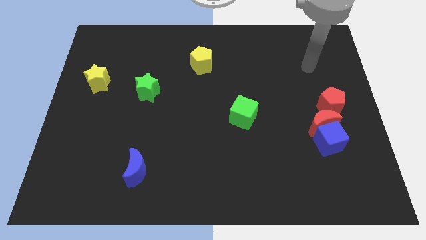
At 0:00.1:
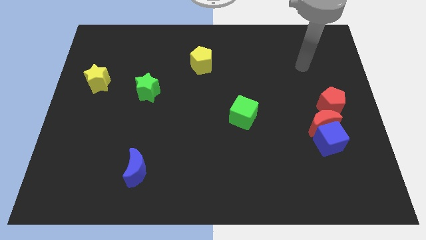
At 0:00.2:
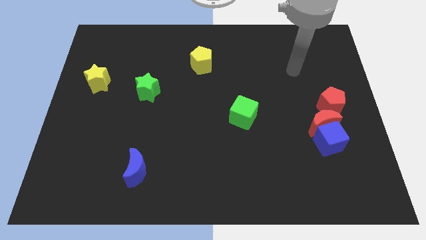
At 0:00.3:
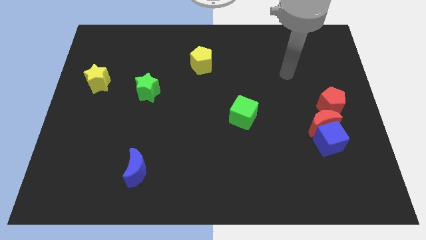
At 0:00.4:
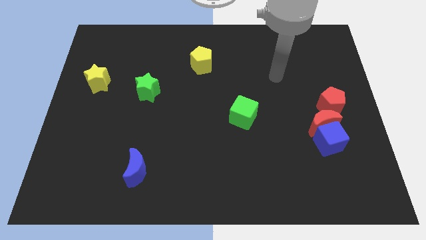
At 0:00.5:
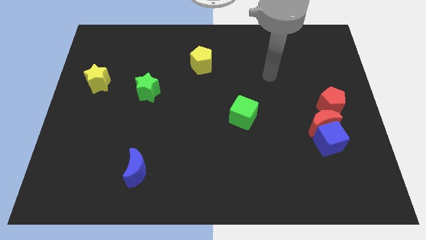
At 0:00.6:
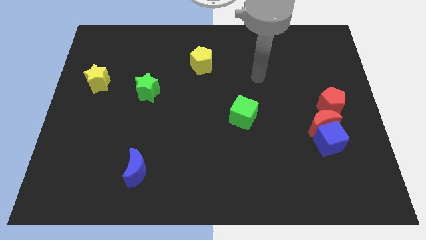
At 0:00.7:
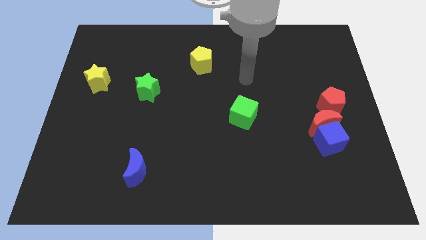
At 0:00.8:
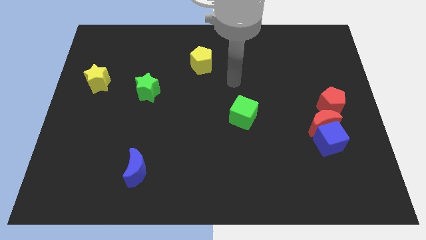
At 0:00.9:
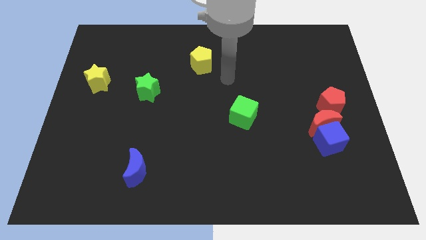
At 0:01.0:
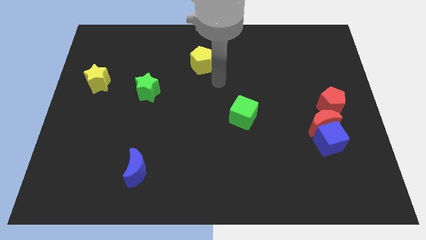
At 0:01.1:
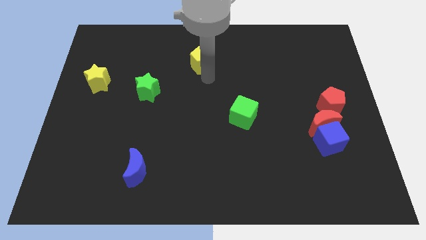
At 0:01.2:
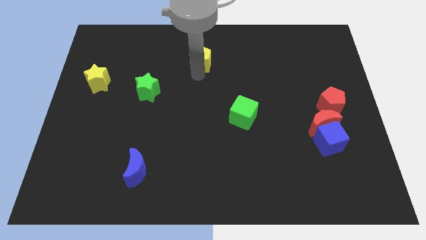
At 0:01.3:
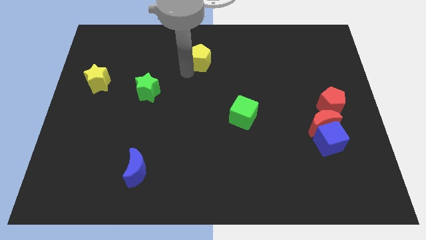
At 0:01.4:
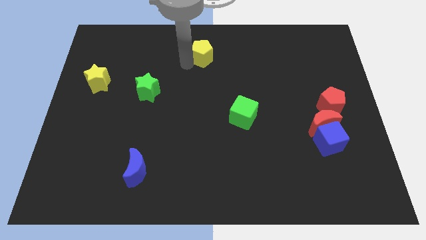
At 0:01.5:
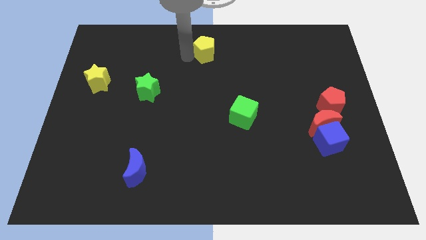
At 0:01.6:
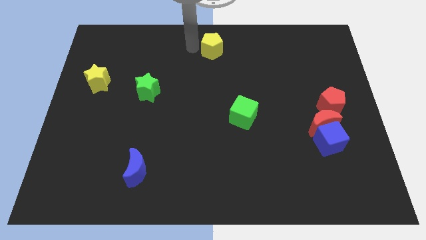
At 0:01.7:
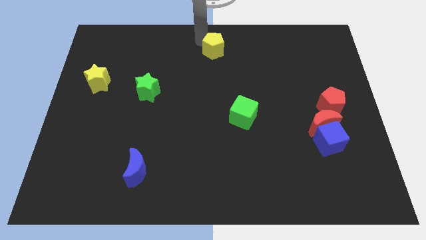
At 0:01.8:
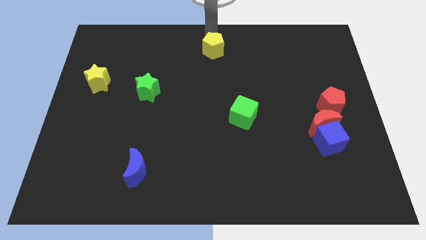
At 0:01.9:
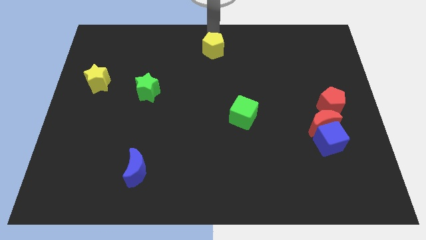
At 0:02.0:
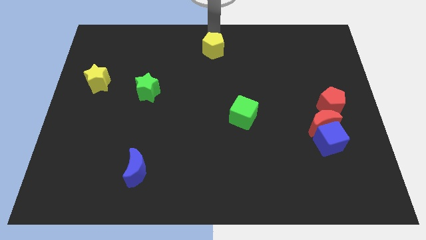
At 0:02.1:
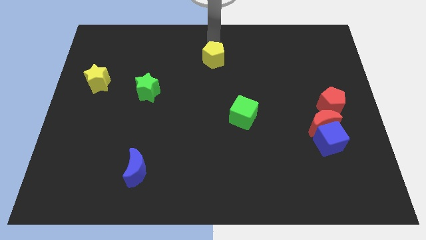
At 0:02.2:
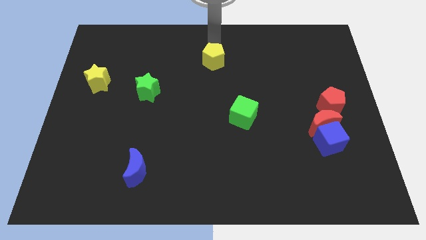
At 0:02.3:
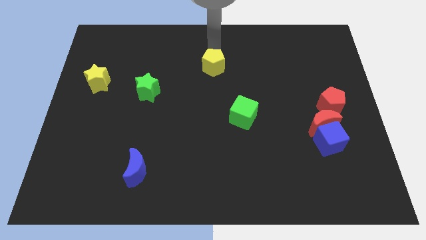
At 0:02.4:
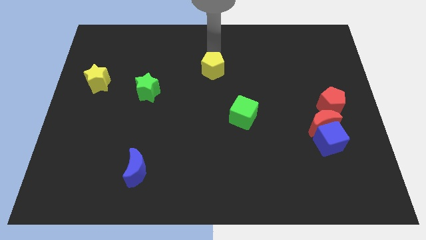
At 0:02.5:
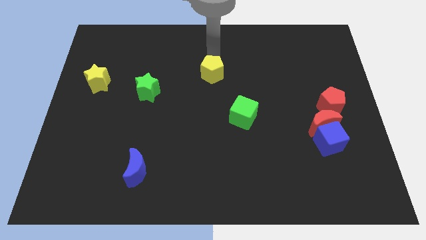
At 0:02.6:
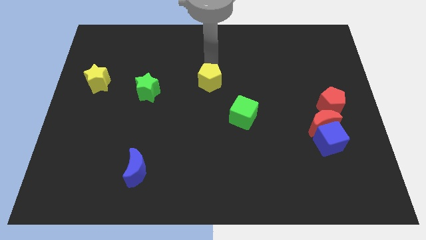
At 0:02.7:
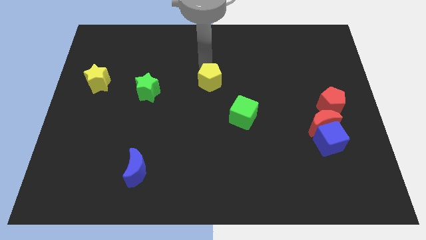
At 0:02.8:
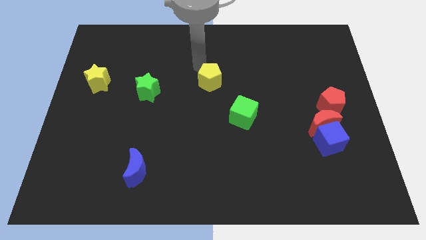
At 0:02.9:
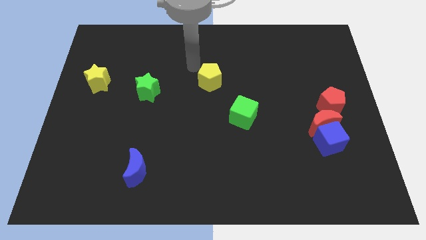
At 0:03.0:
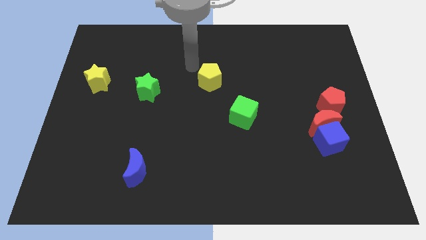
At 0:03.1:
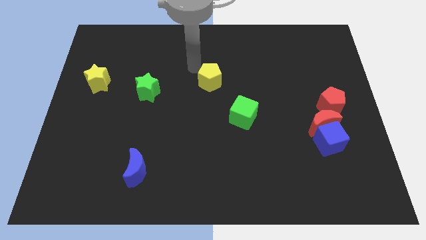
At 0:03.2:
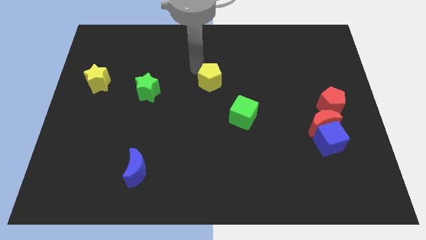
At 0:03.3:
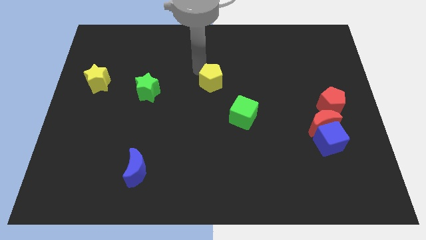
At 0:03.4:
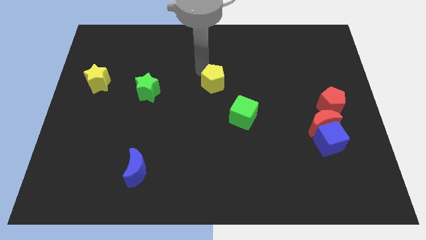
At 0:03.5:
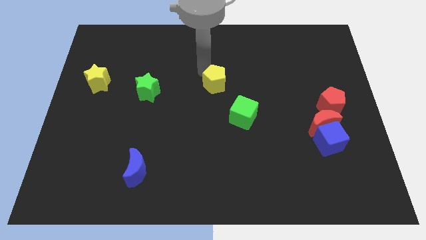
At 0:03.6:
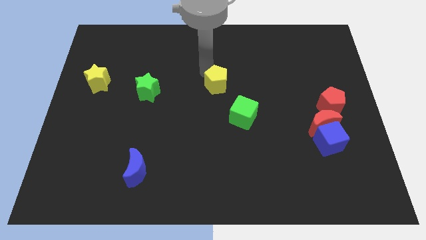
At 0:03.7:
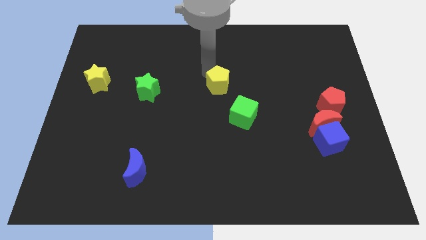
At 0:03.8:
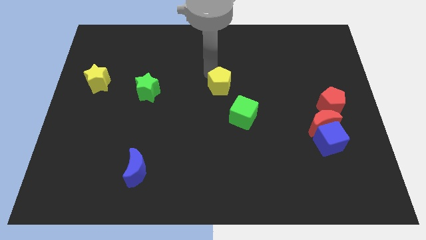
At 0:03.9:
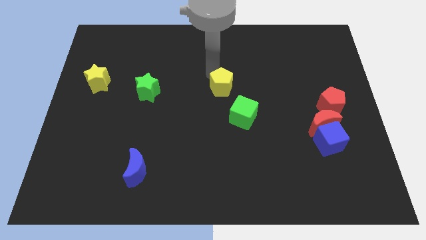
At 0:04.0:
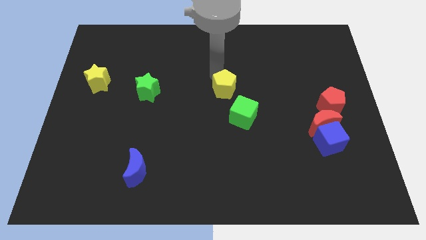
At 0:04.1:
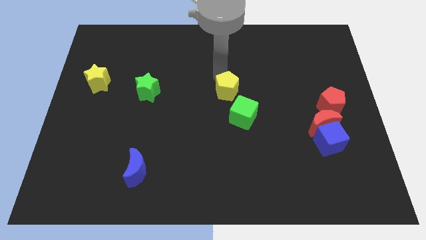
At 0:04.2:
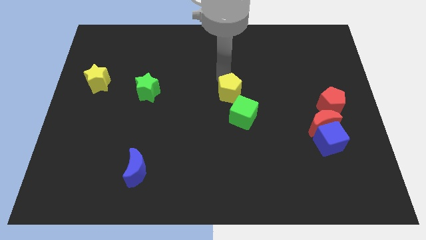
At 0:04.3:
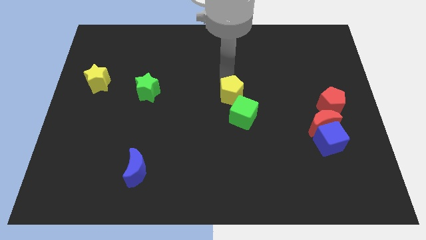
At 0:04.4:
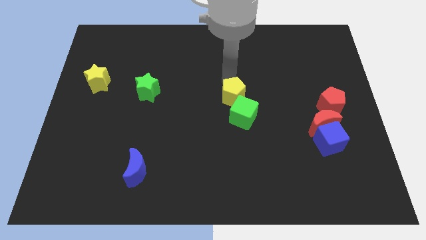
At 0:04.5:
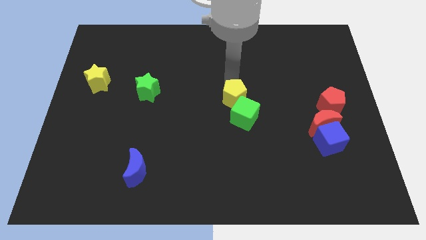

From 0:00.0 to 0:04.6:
put the yellow pentagon to the green cube

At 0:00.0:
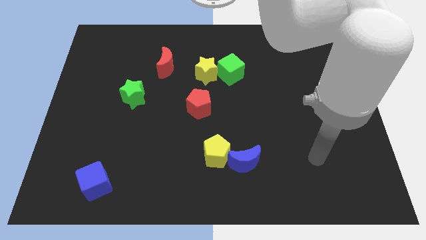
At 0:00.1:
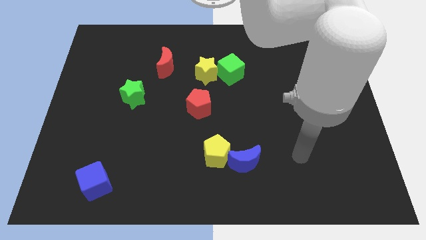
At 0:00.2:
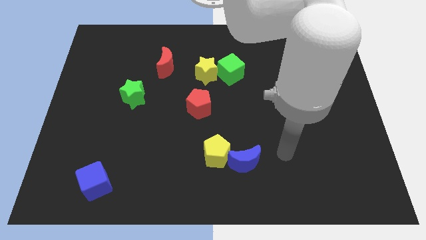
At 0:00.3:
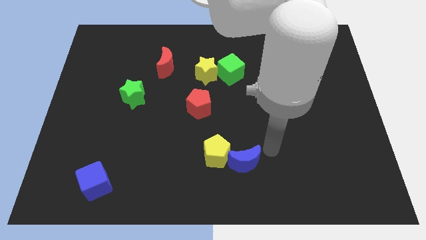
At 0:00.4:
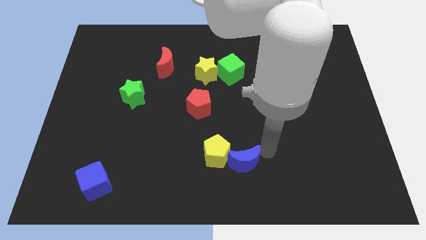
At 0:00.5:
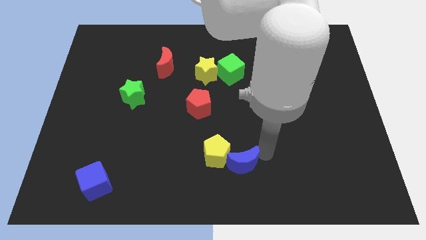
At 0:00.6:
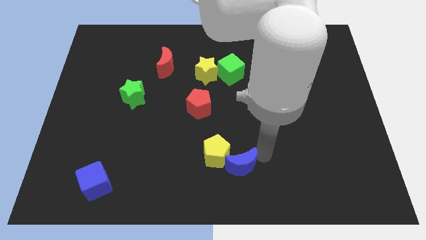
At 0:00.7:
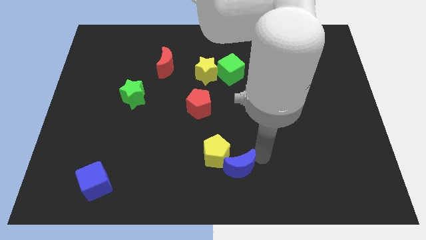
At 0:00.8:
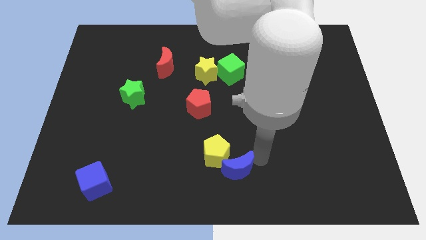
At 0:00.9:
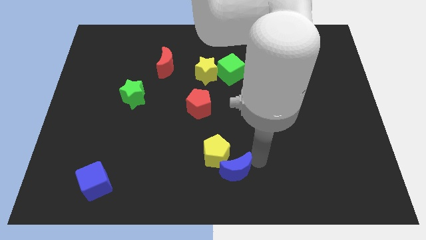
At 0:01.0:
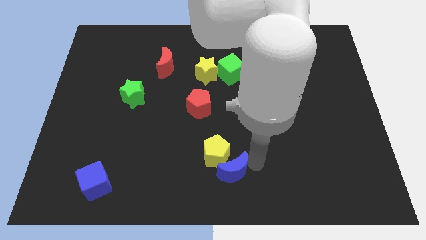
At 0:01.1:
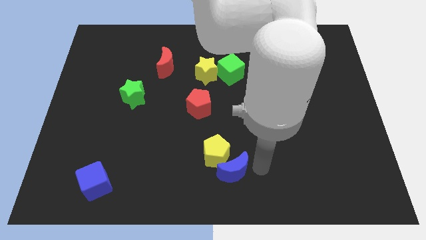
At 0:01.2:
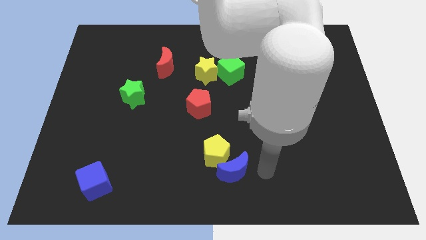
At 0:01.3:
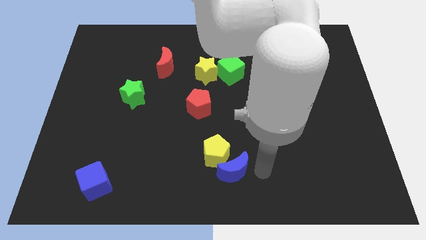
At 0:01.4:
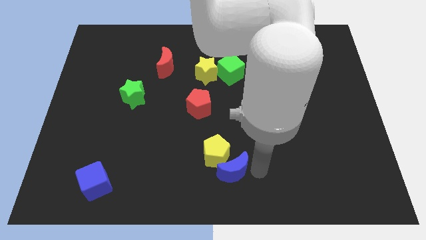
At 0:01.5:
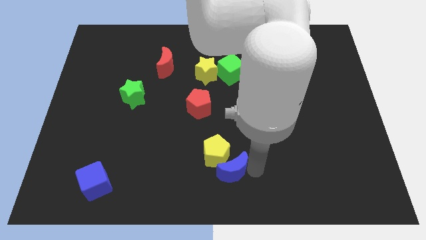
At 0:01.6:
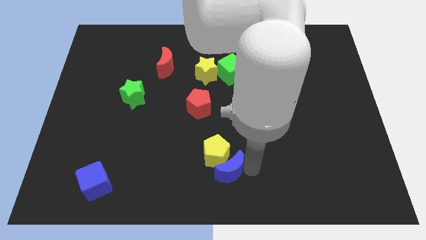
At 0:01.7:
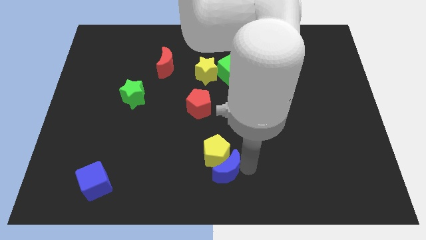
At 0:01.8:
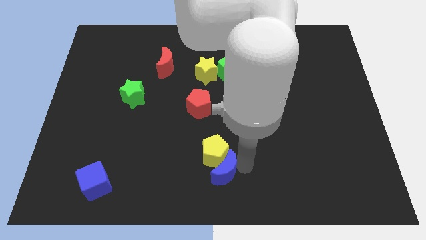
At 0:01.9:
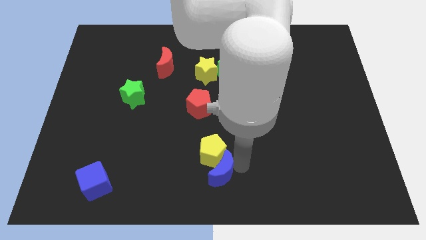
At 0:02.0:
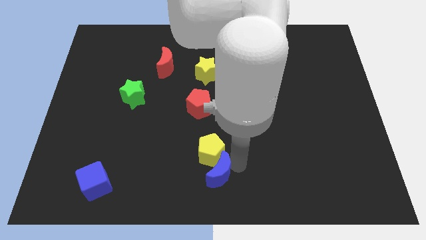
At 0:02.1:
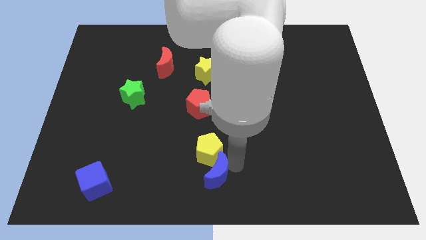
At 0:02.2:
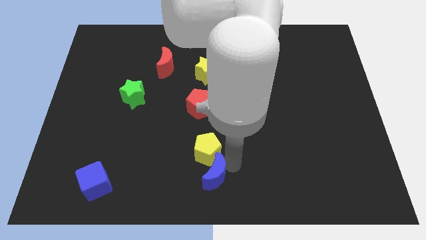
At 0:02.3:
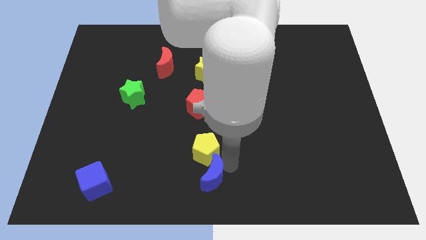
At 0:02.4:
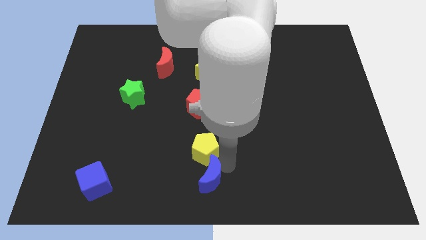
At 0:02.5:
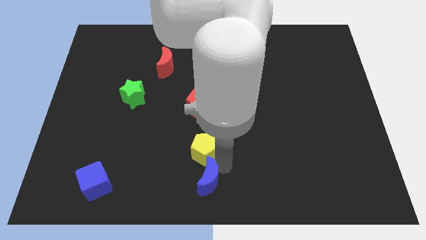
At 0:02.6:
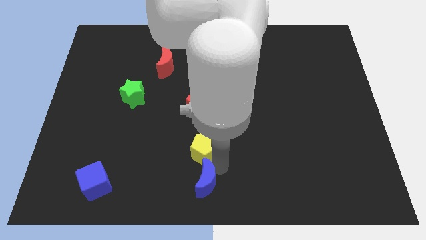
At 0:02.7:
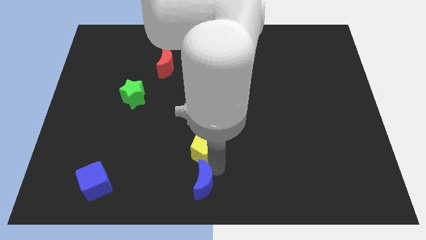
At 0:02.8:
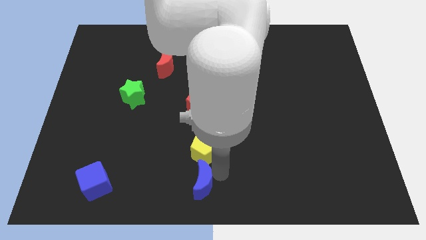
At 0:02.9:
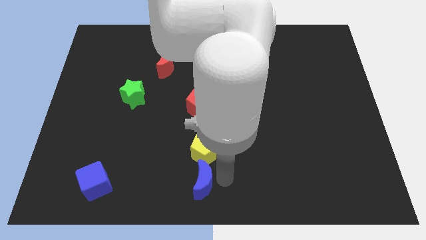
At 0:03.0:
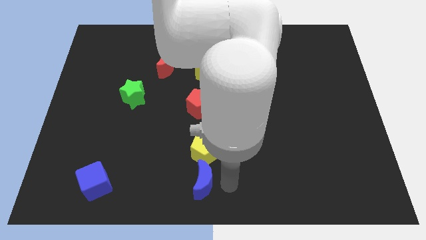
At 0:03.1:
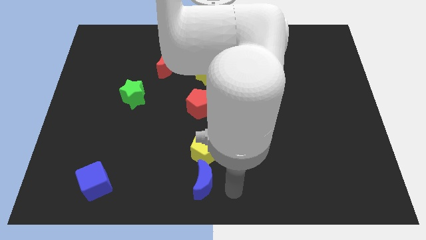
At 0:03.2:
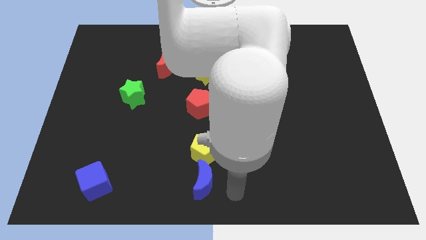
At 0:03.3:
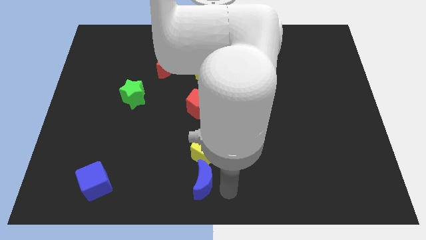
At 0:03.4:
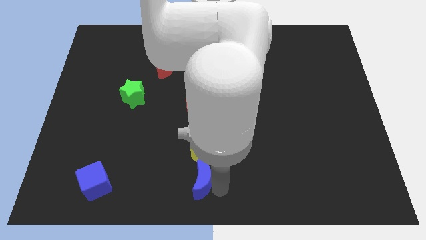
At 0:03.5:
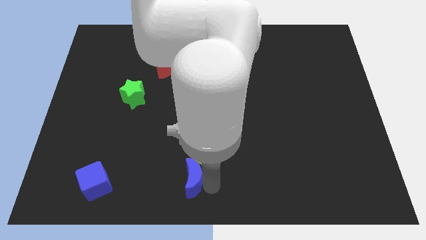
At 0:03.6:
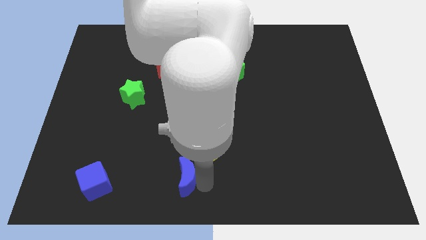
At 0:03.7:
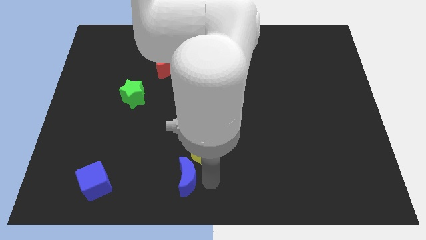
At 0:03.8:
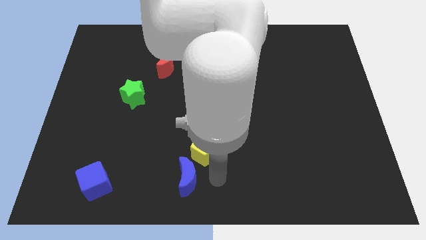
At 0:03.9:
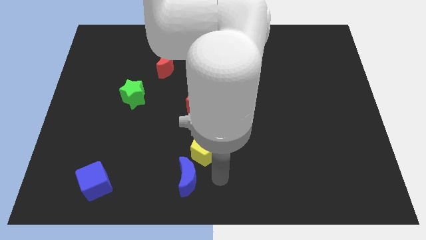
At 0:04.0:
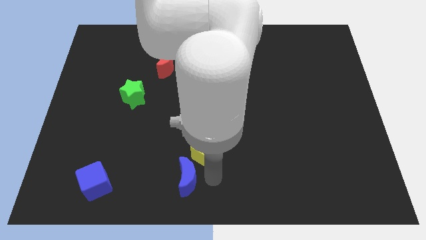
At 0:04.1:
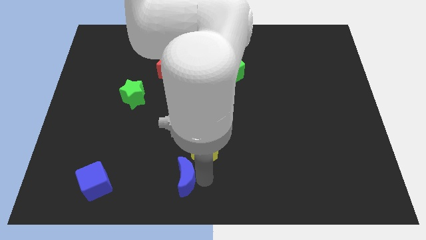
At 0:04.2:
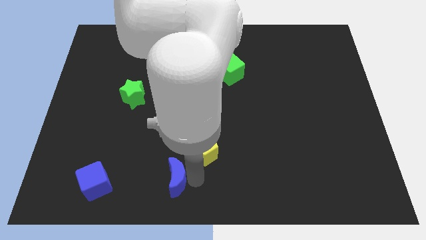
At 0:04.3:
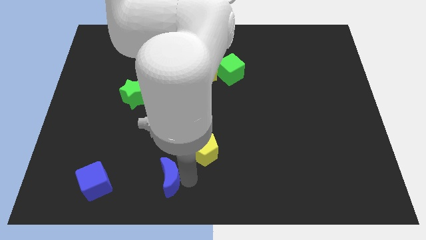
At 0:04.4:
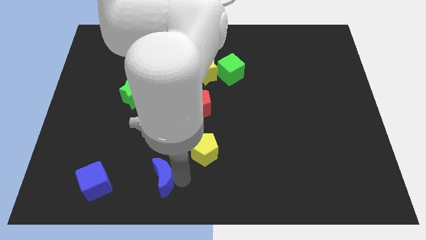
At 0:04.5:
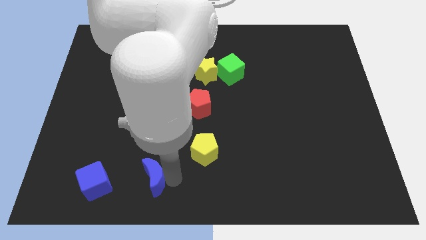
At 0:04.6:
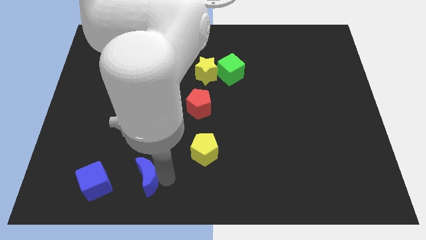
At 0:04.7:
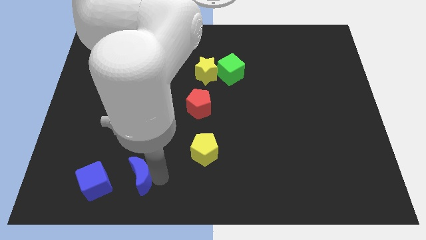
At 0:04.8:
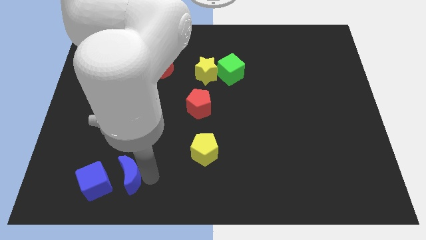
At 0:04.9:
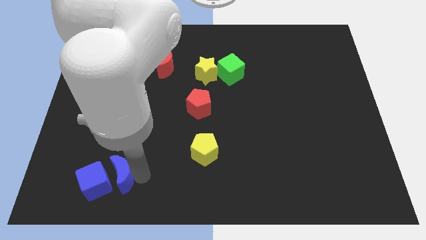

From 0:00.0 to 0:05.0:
put the blue moon next to the blue cube
